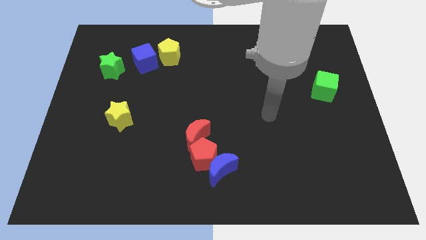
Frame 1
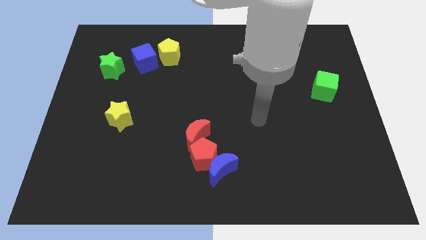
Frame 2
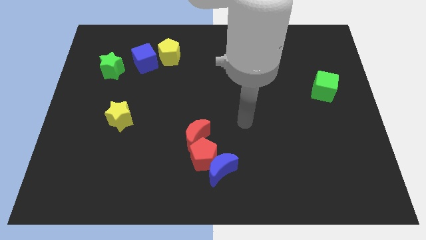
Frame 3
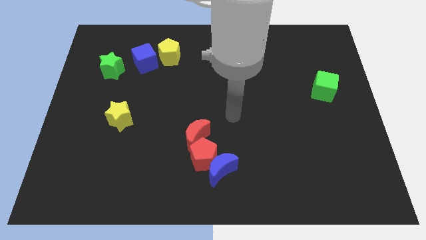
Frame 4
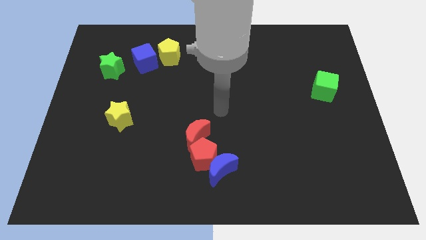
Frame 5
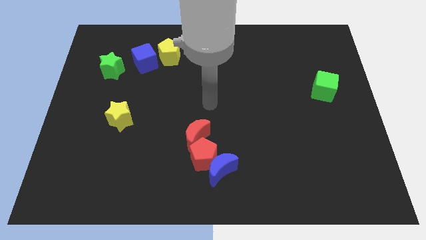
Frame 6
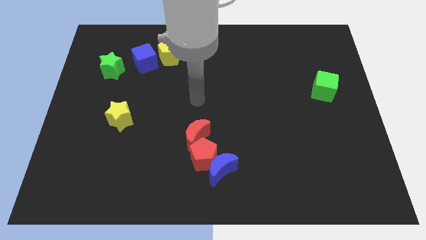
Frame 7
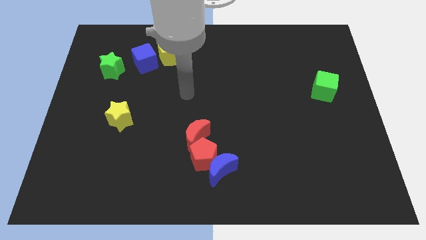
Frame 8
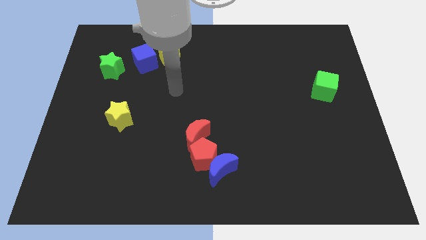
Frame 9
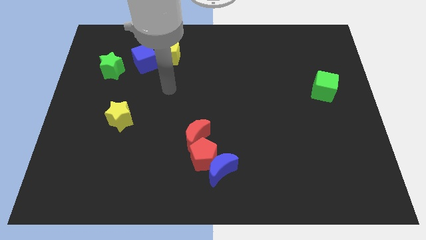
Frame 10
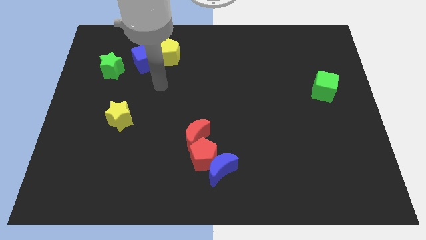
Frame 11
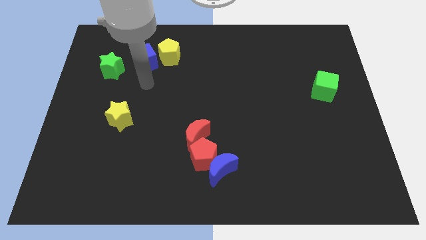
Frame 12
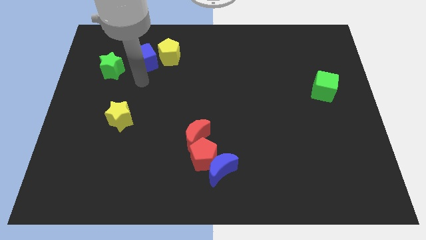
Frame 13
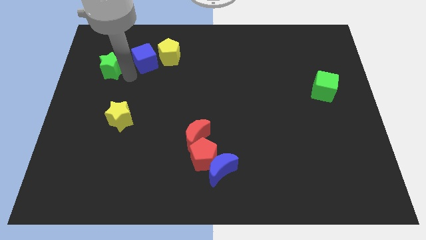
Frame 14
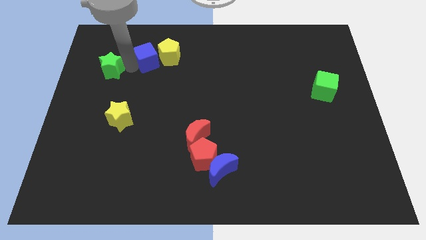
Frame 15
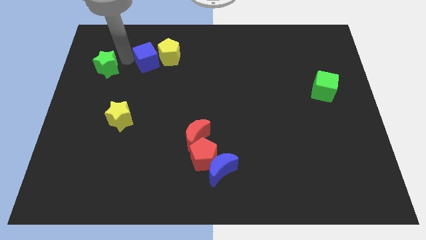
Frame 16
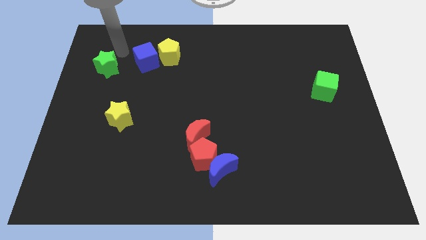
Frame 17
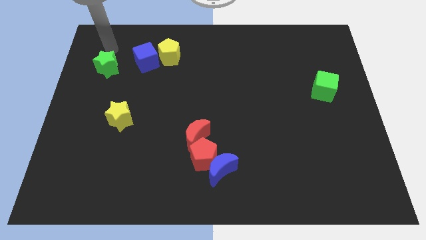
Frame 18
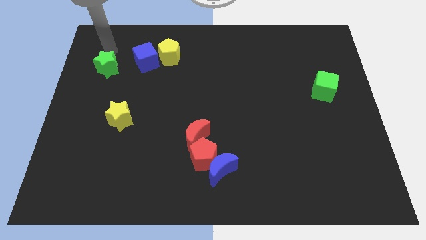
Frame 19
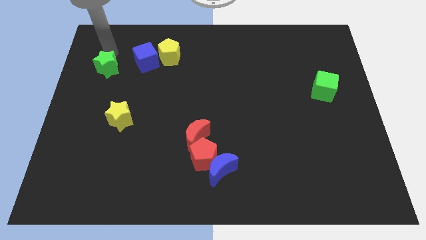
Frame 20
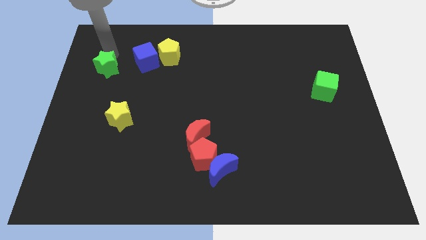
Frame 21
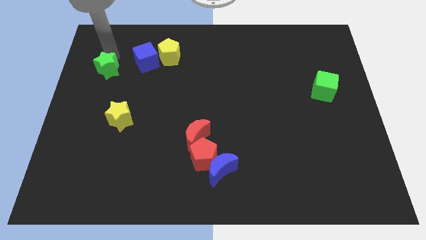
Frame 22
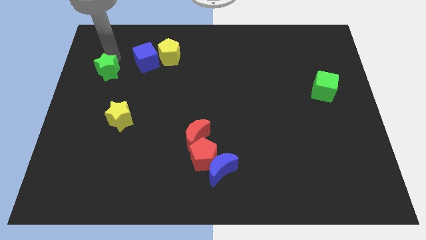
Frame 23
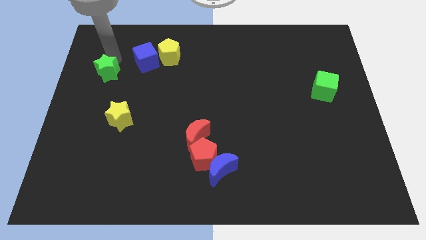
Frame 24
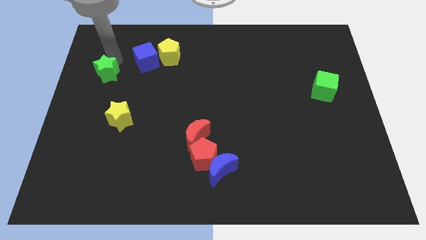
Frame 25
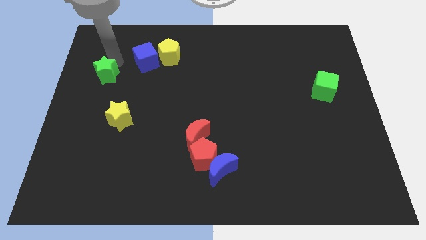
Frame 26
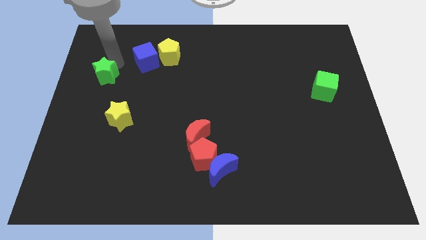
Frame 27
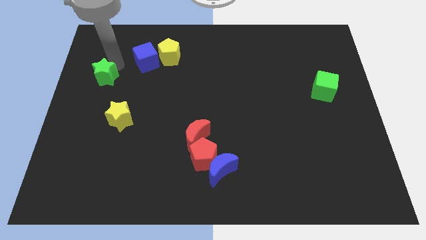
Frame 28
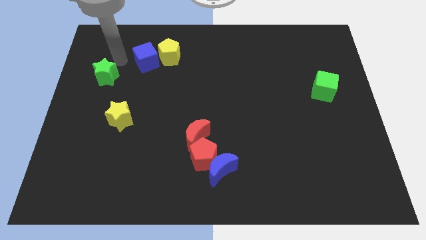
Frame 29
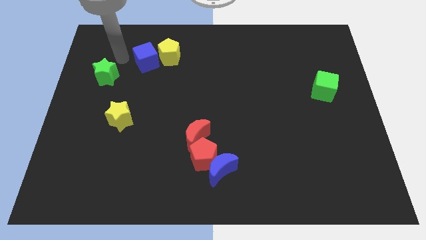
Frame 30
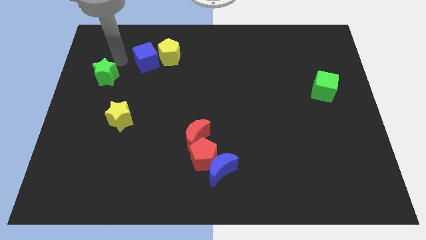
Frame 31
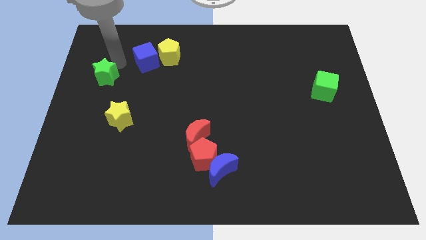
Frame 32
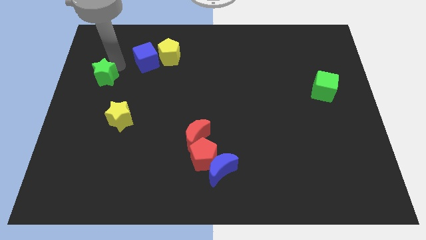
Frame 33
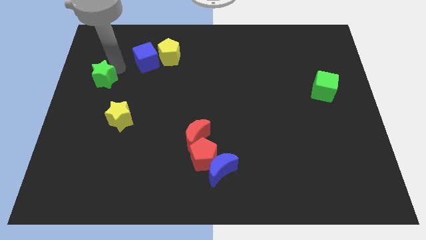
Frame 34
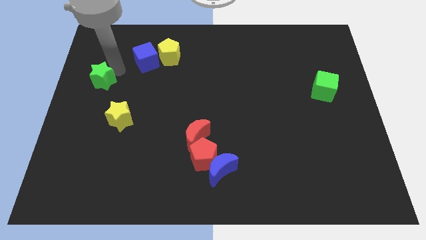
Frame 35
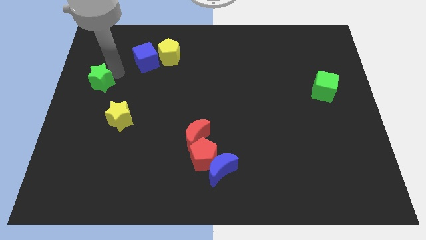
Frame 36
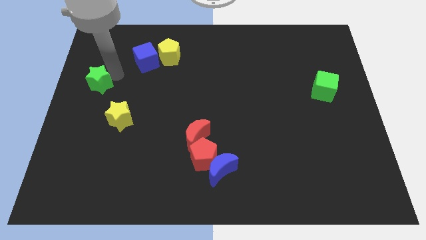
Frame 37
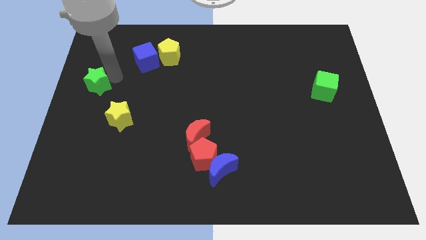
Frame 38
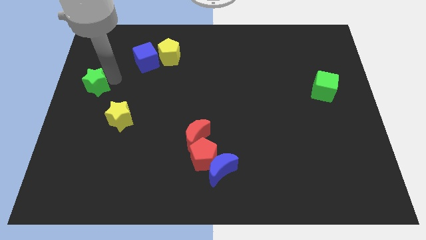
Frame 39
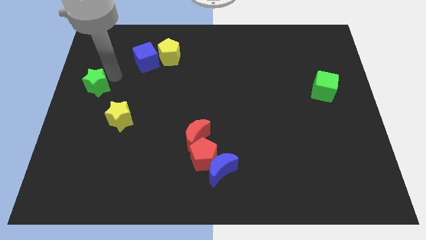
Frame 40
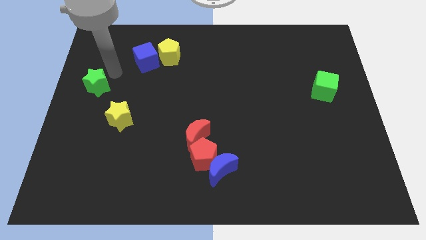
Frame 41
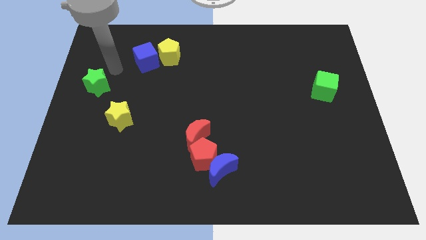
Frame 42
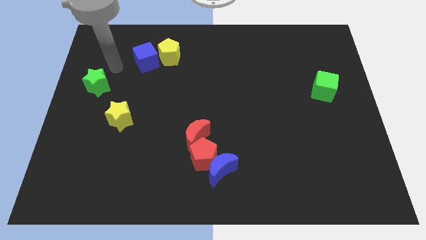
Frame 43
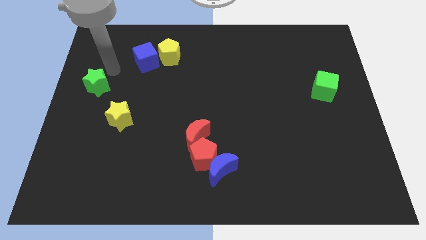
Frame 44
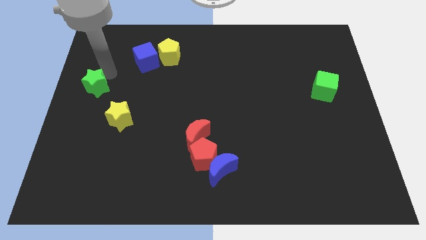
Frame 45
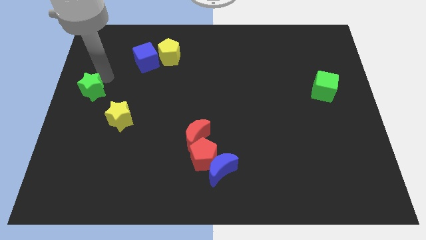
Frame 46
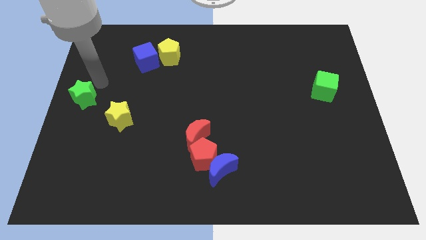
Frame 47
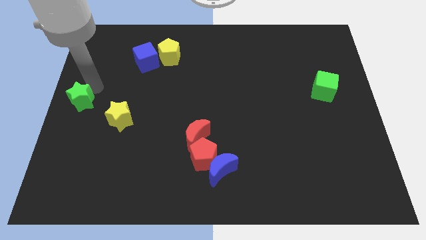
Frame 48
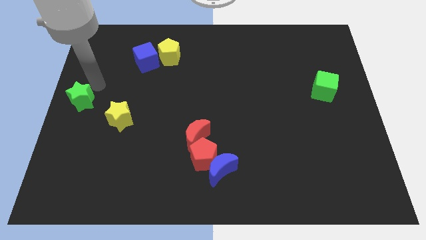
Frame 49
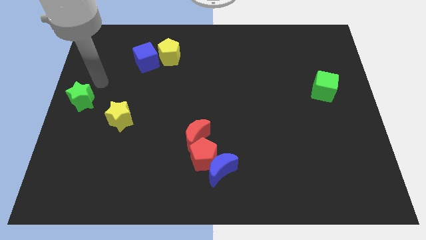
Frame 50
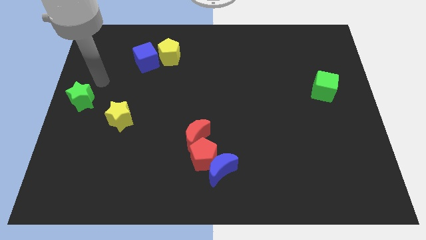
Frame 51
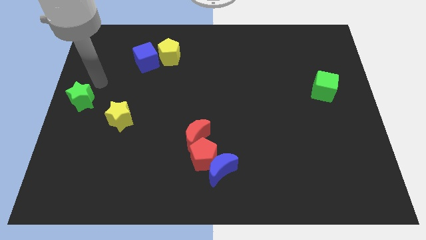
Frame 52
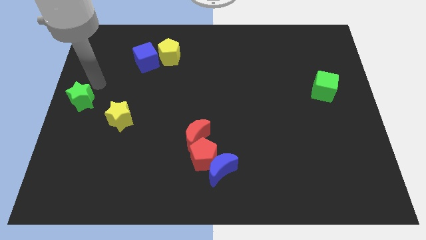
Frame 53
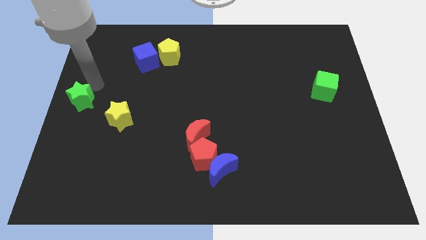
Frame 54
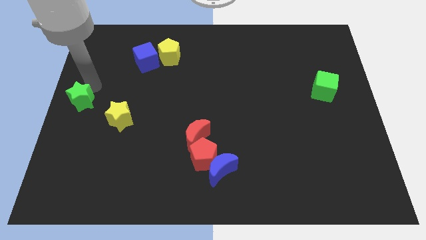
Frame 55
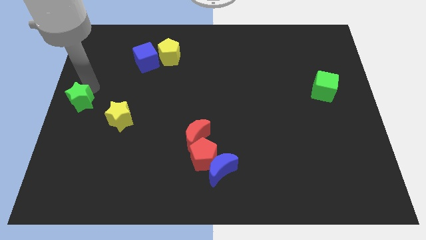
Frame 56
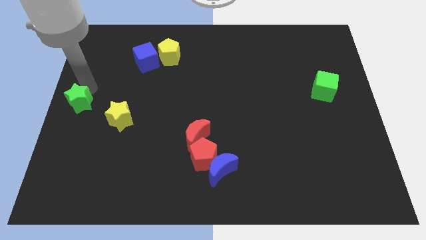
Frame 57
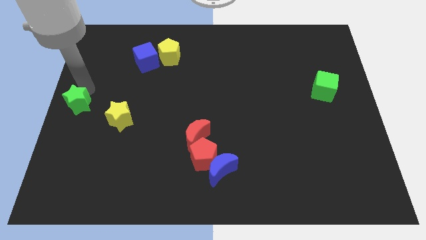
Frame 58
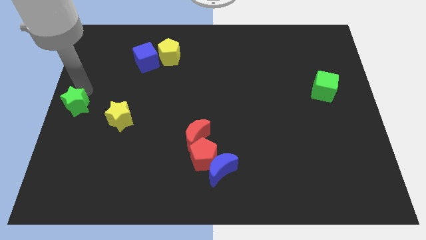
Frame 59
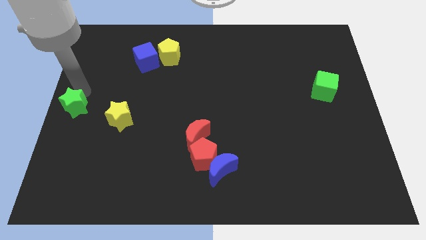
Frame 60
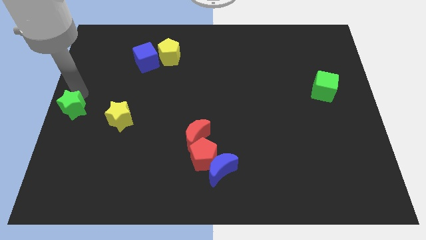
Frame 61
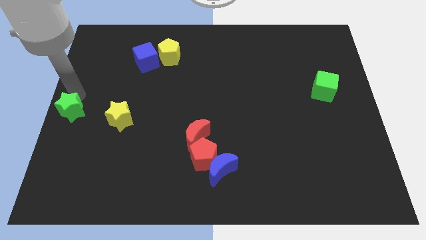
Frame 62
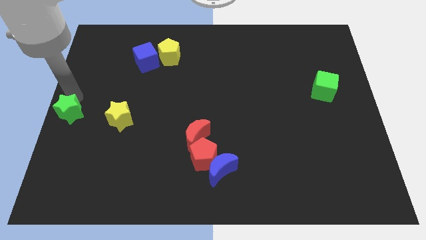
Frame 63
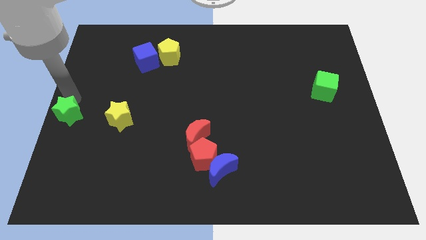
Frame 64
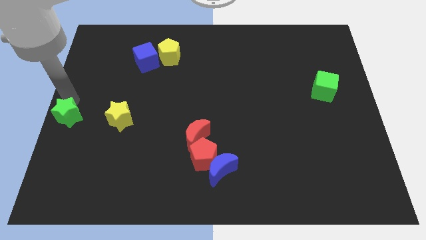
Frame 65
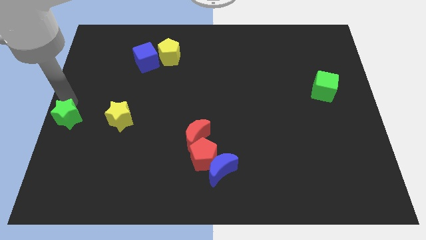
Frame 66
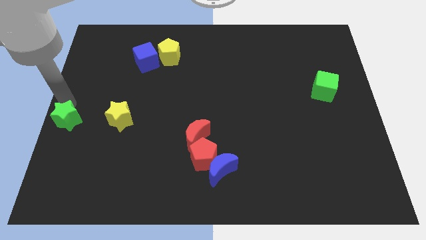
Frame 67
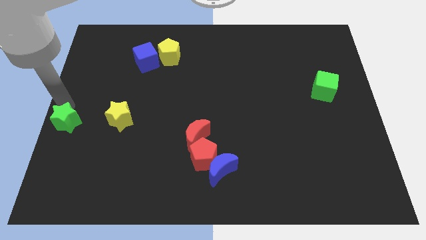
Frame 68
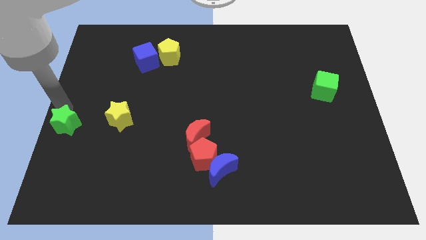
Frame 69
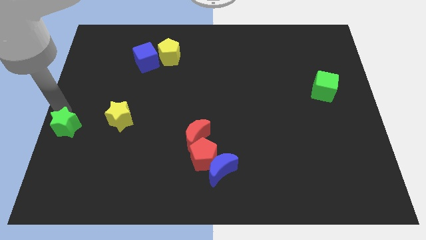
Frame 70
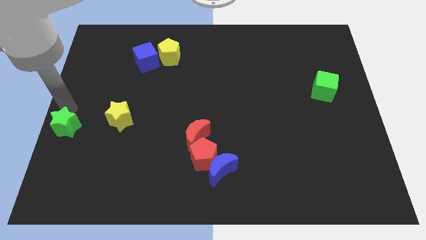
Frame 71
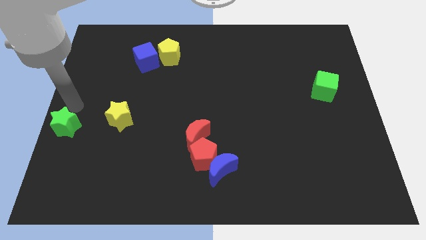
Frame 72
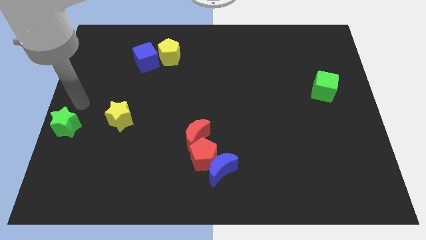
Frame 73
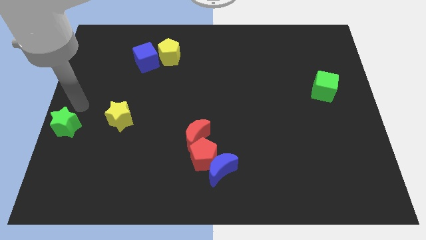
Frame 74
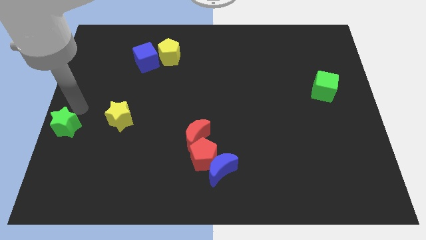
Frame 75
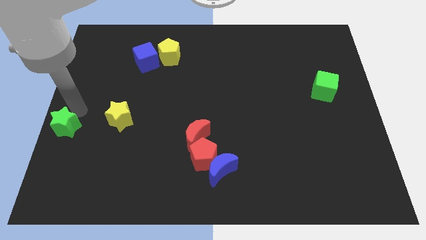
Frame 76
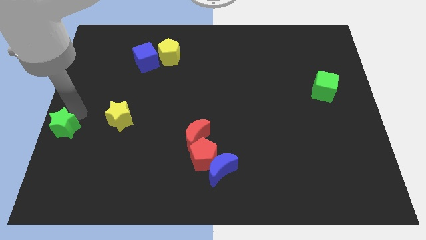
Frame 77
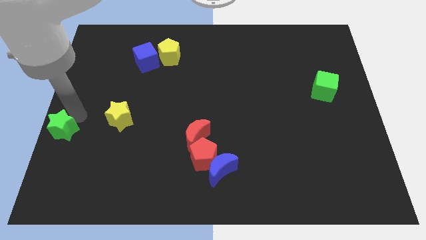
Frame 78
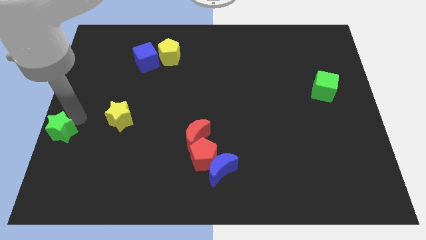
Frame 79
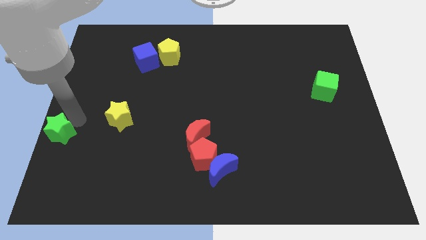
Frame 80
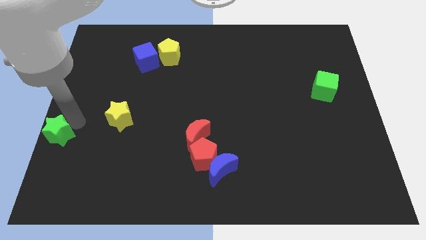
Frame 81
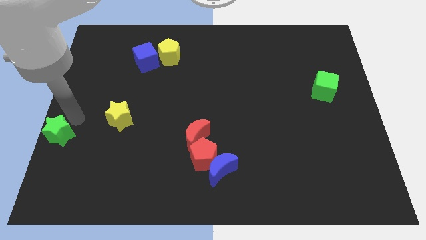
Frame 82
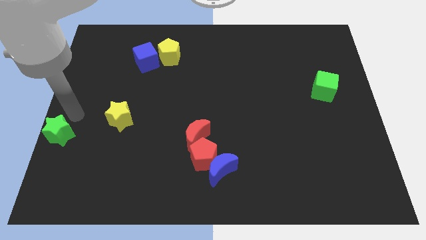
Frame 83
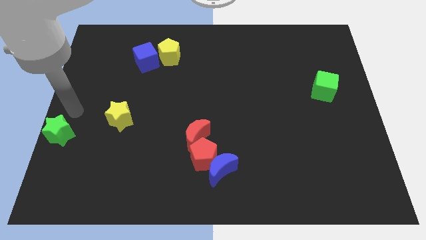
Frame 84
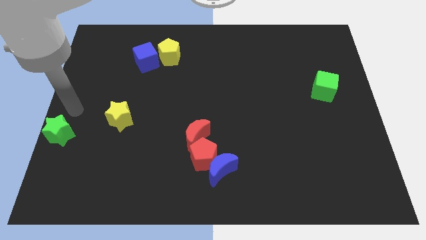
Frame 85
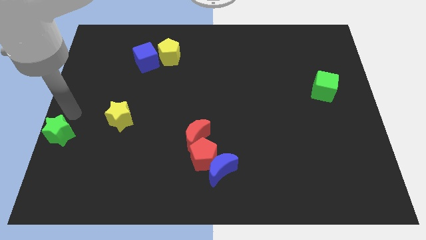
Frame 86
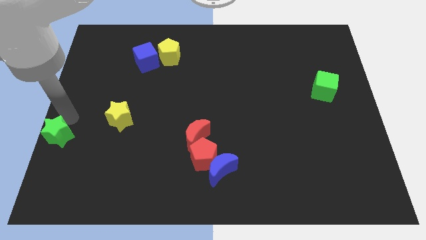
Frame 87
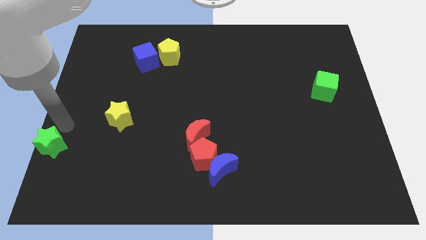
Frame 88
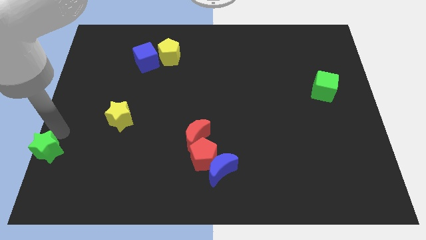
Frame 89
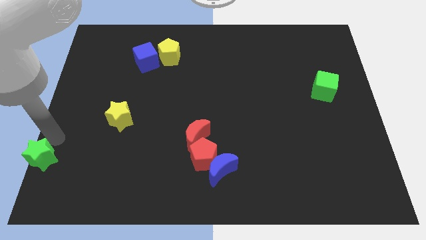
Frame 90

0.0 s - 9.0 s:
slide the green star to the bottom left corner
